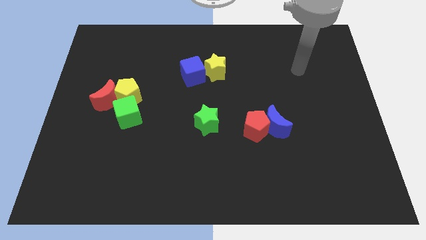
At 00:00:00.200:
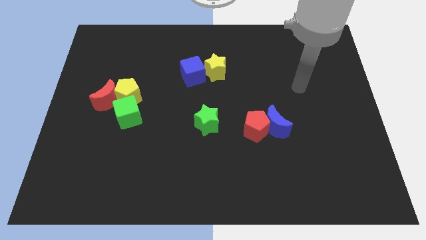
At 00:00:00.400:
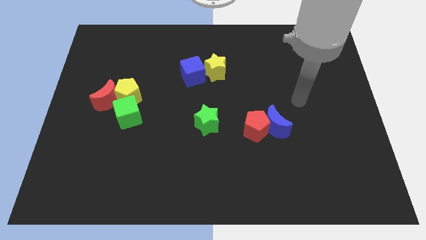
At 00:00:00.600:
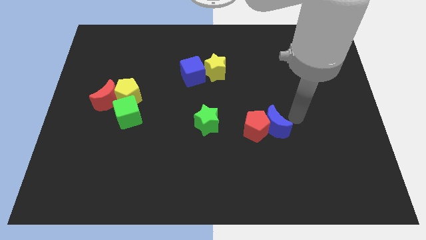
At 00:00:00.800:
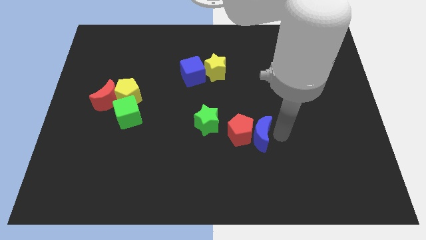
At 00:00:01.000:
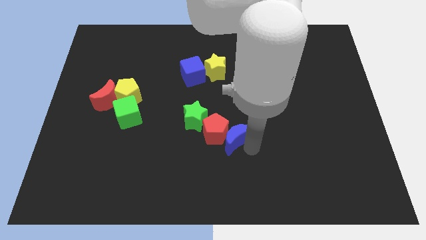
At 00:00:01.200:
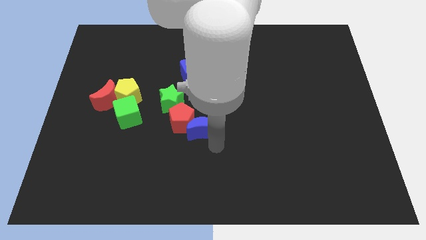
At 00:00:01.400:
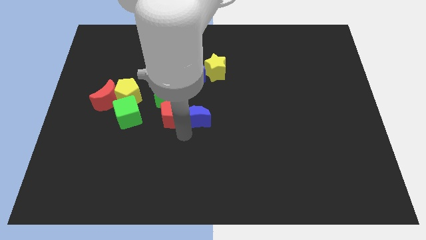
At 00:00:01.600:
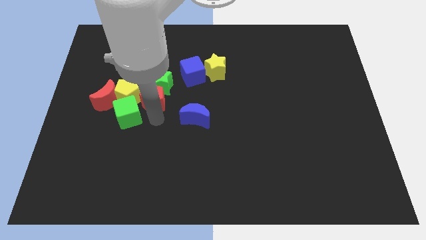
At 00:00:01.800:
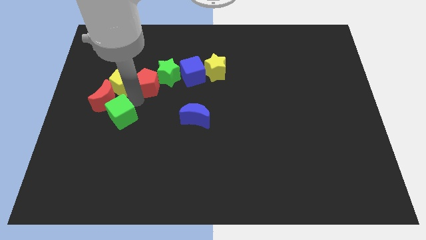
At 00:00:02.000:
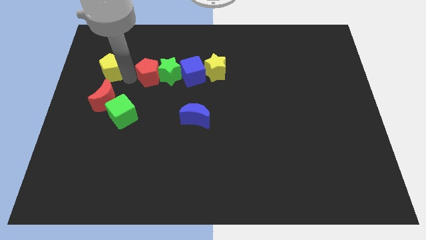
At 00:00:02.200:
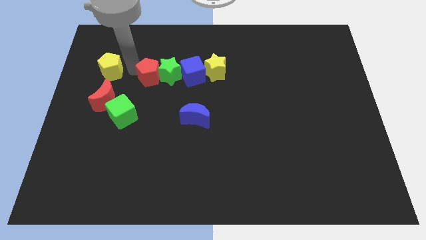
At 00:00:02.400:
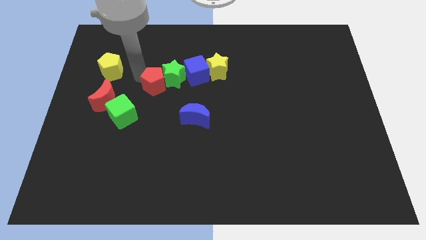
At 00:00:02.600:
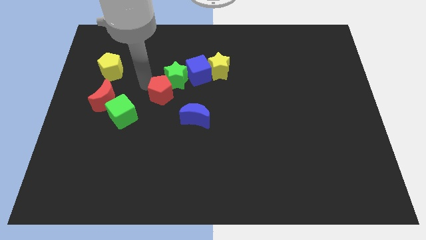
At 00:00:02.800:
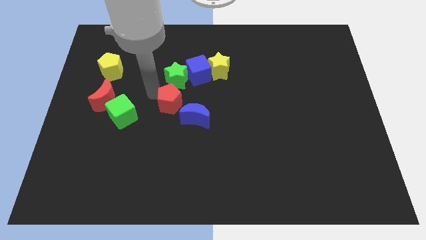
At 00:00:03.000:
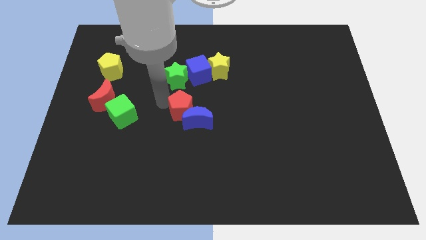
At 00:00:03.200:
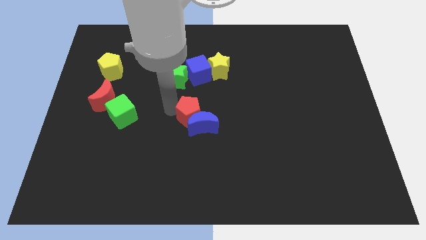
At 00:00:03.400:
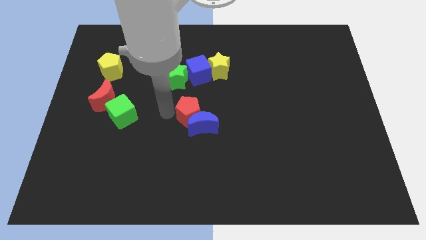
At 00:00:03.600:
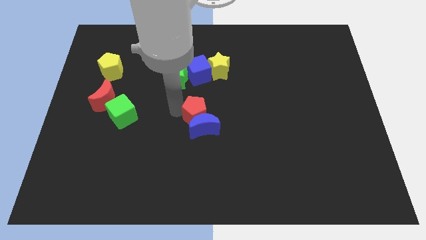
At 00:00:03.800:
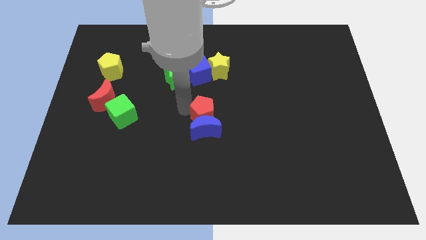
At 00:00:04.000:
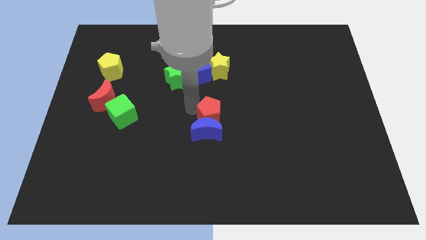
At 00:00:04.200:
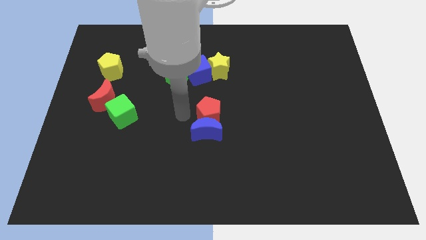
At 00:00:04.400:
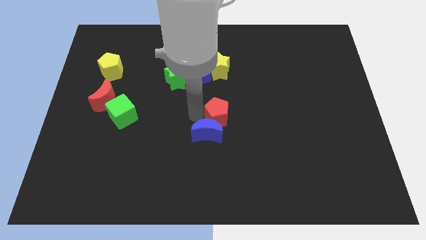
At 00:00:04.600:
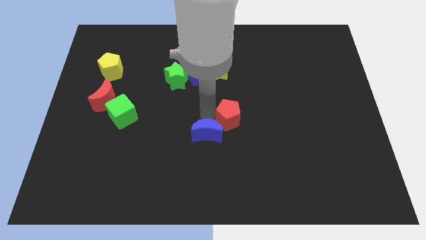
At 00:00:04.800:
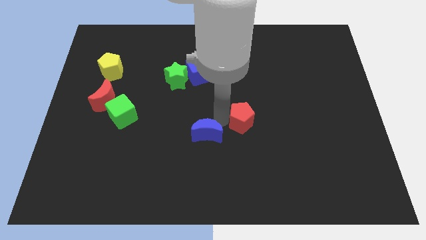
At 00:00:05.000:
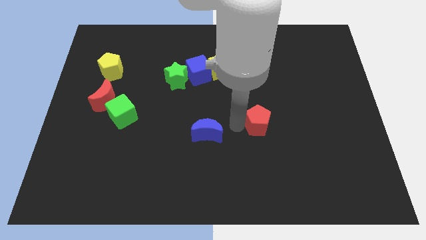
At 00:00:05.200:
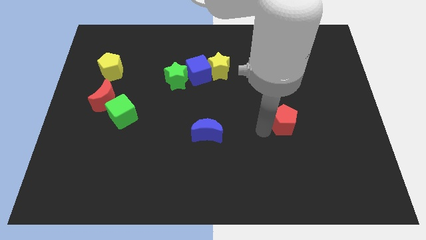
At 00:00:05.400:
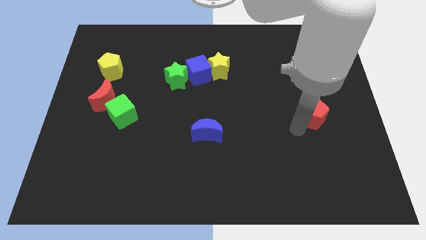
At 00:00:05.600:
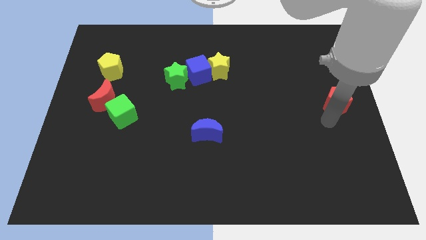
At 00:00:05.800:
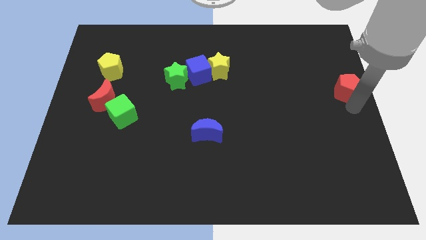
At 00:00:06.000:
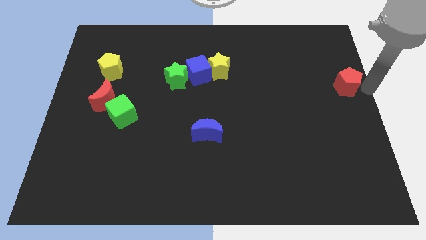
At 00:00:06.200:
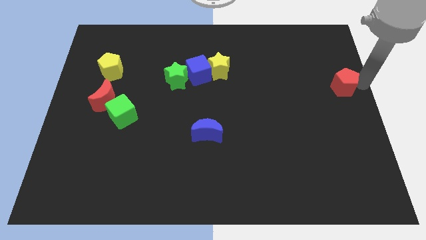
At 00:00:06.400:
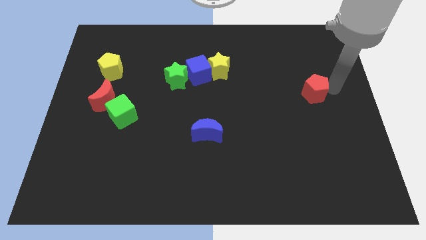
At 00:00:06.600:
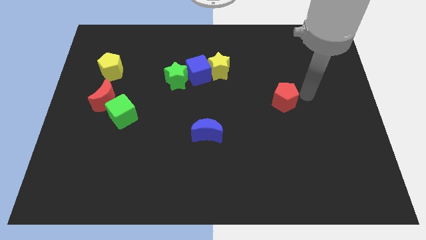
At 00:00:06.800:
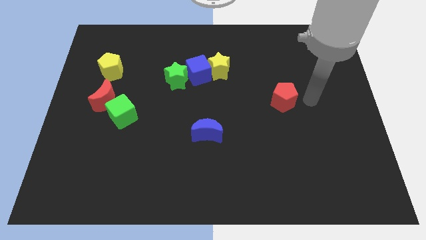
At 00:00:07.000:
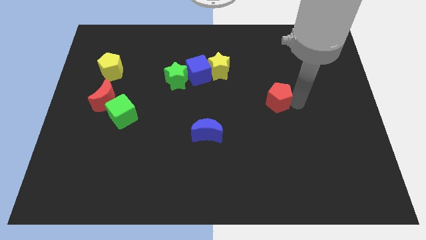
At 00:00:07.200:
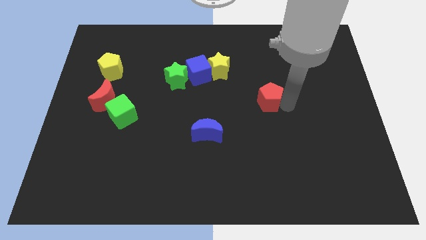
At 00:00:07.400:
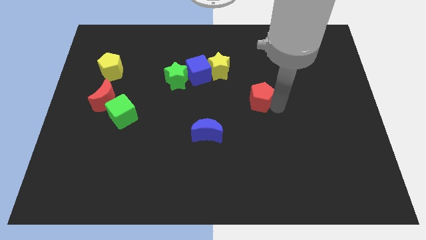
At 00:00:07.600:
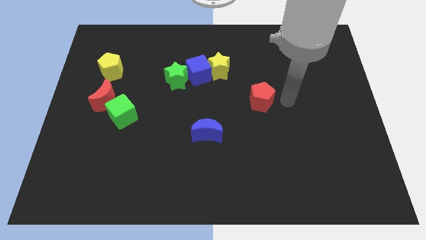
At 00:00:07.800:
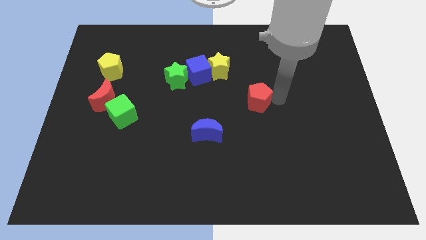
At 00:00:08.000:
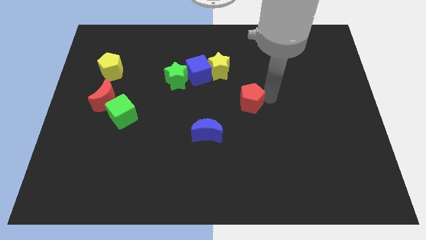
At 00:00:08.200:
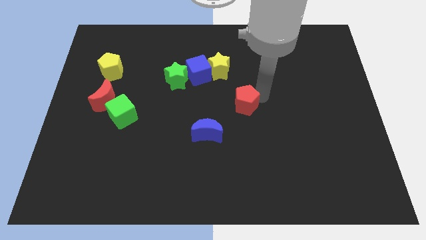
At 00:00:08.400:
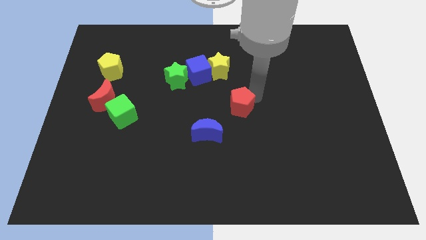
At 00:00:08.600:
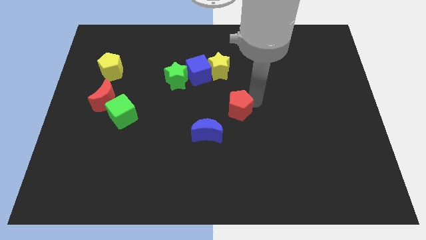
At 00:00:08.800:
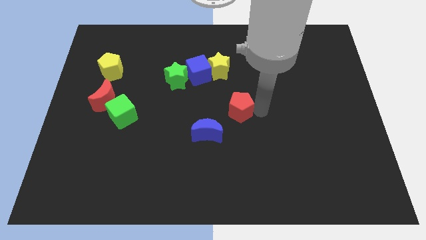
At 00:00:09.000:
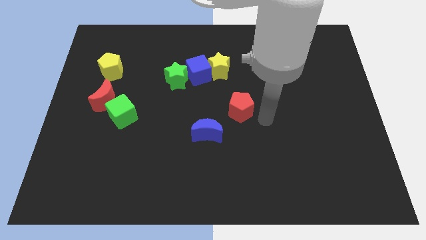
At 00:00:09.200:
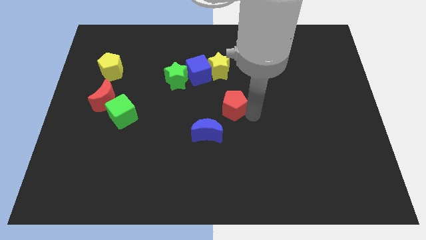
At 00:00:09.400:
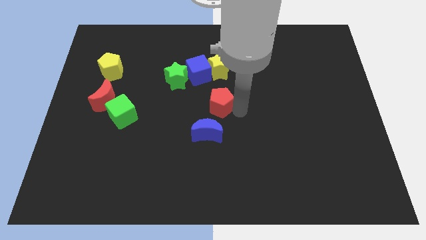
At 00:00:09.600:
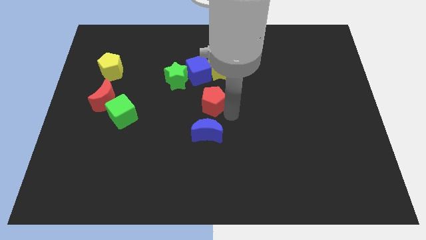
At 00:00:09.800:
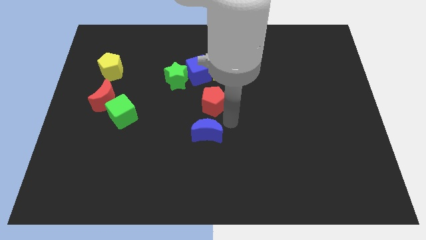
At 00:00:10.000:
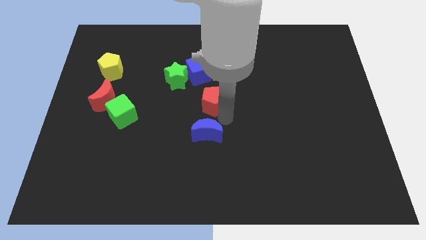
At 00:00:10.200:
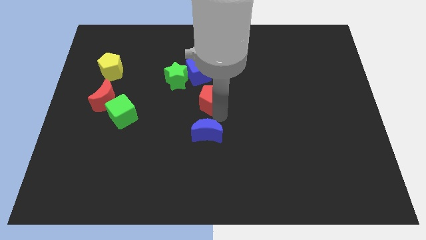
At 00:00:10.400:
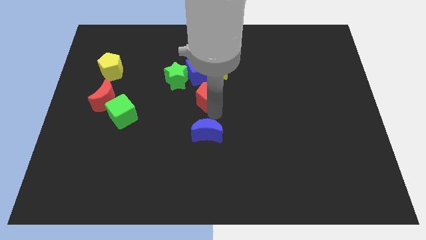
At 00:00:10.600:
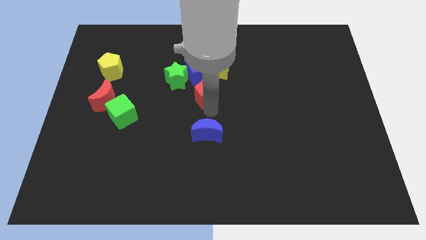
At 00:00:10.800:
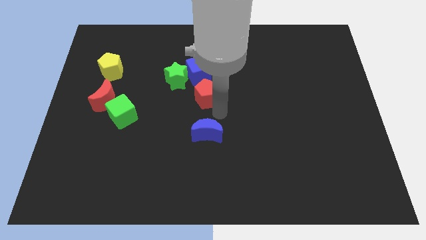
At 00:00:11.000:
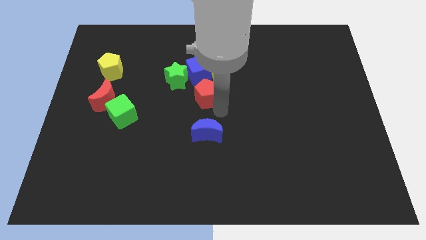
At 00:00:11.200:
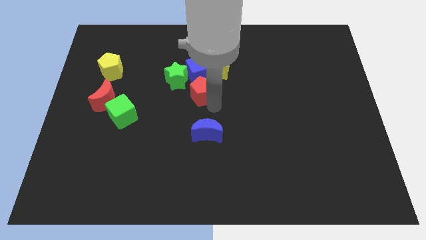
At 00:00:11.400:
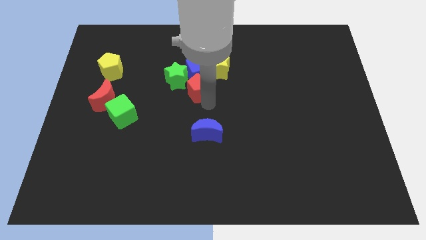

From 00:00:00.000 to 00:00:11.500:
put the red pentagon close to the blue cube

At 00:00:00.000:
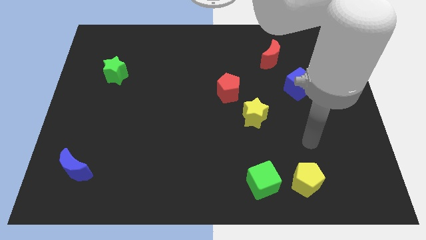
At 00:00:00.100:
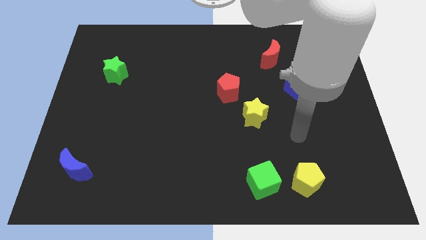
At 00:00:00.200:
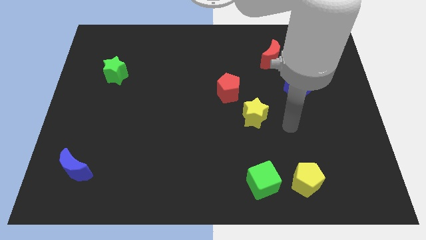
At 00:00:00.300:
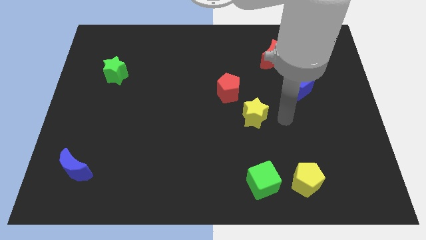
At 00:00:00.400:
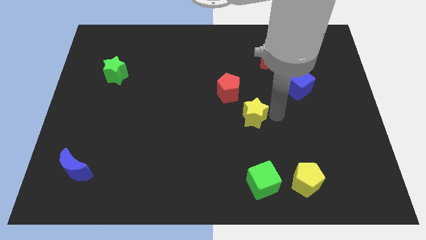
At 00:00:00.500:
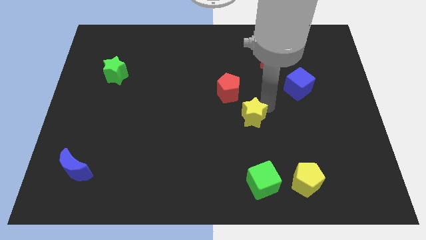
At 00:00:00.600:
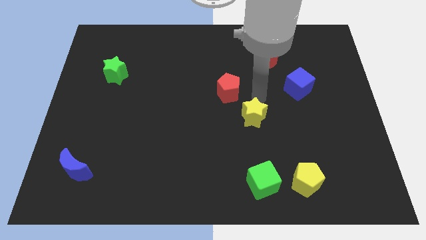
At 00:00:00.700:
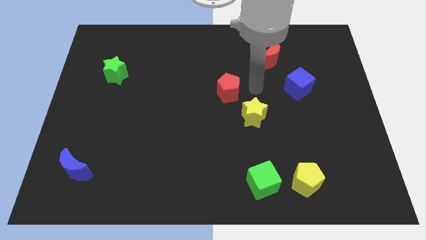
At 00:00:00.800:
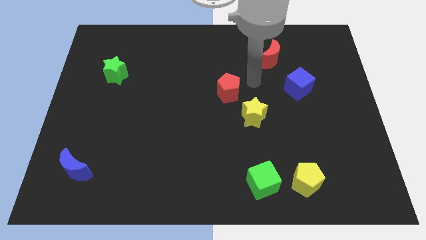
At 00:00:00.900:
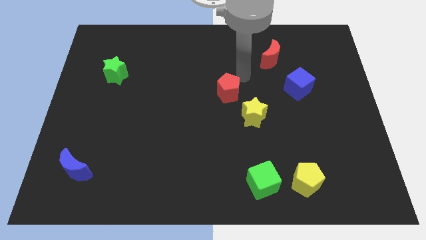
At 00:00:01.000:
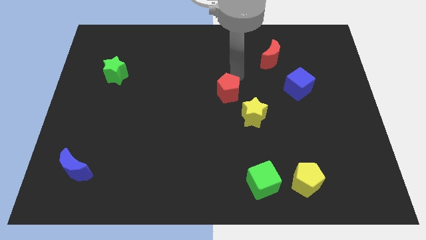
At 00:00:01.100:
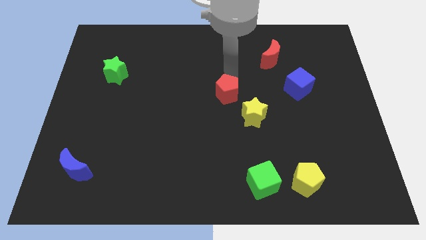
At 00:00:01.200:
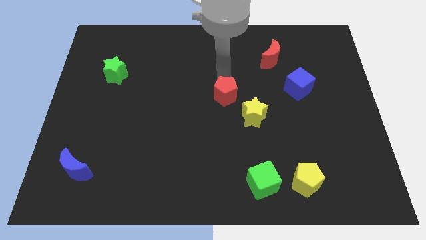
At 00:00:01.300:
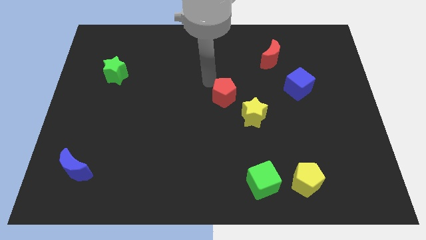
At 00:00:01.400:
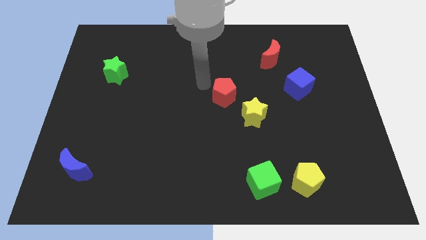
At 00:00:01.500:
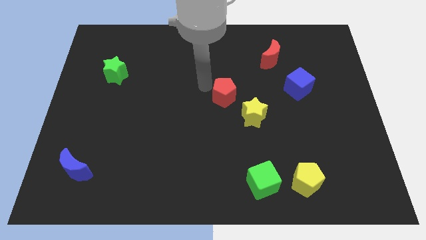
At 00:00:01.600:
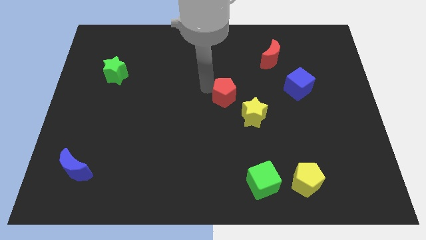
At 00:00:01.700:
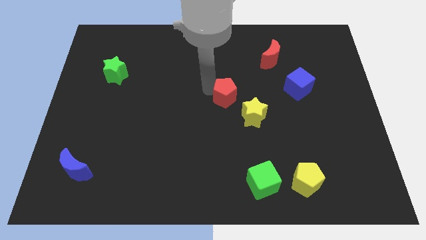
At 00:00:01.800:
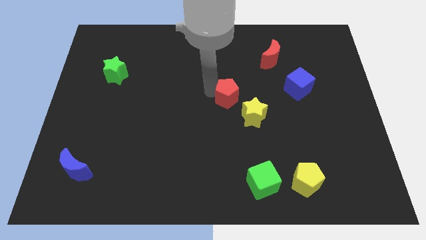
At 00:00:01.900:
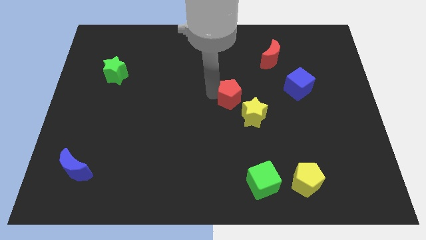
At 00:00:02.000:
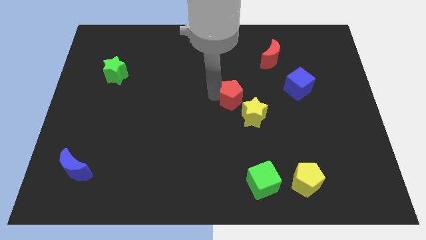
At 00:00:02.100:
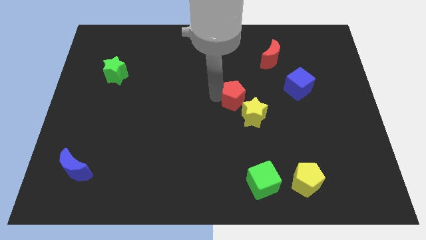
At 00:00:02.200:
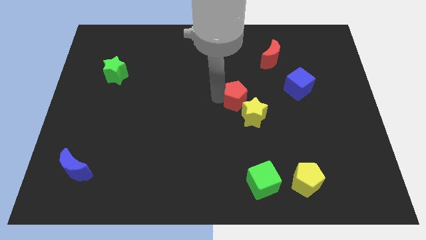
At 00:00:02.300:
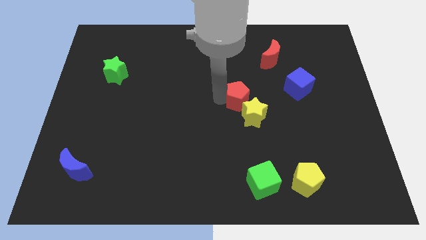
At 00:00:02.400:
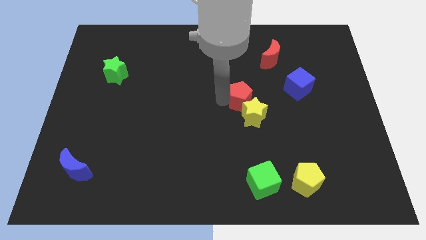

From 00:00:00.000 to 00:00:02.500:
put the red pentagon to the yellow star
